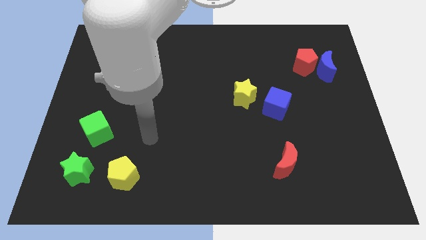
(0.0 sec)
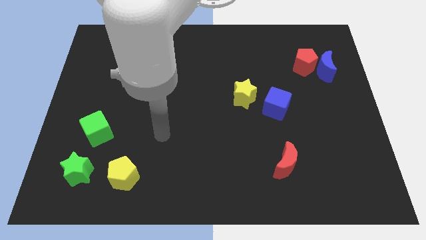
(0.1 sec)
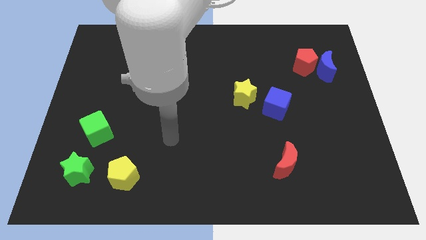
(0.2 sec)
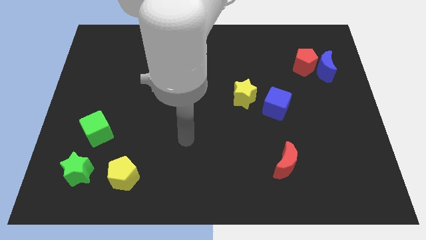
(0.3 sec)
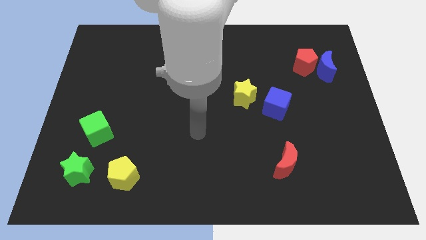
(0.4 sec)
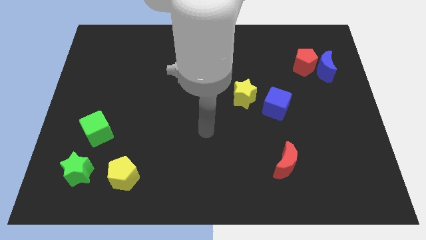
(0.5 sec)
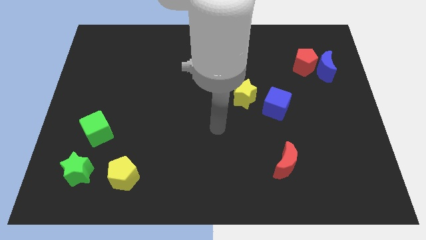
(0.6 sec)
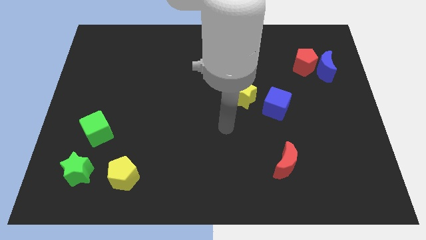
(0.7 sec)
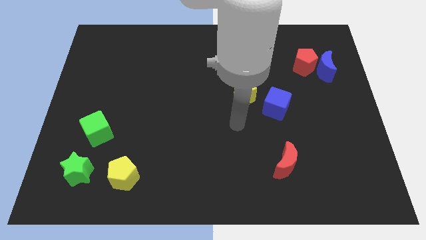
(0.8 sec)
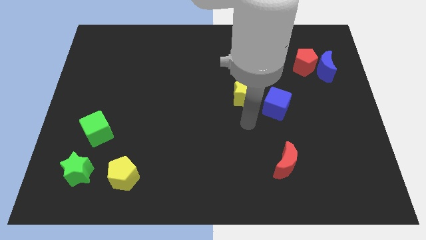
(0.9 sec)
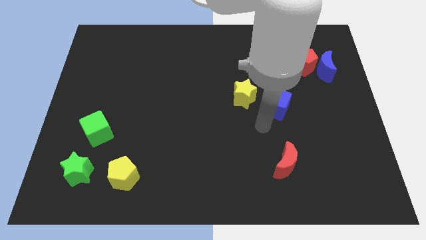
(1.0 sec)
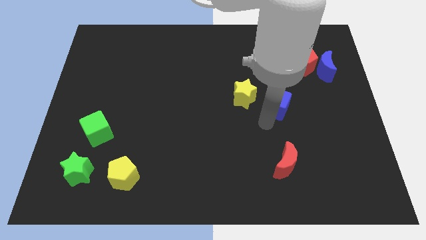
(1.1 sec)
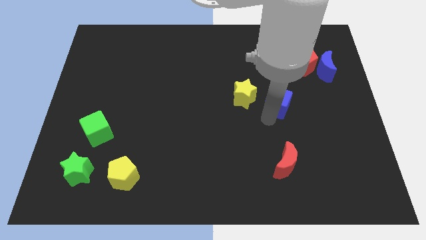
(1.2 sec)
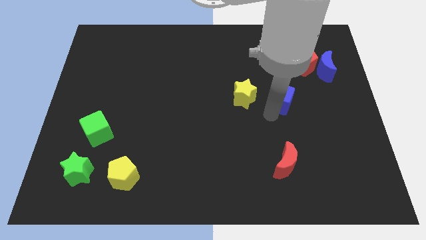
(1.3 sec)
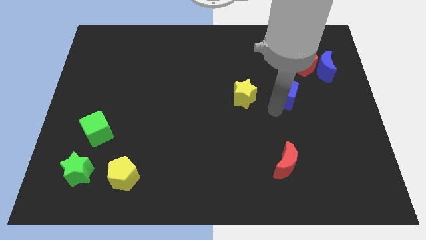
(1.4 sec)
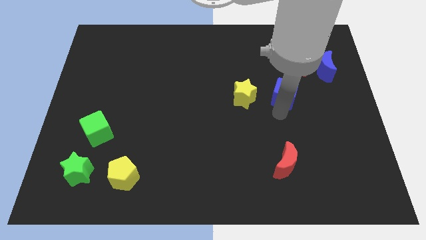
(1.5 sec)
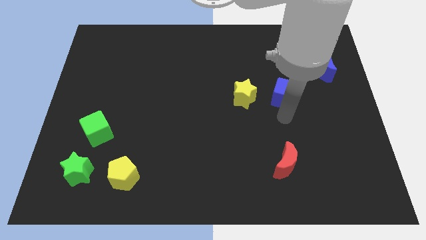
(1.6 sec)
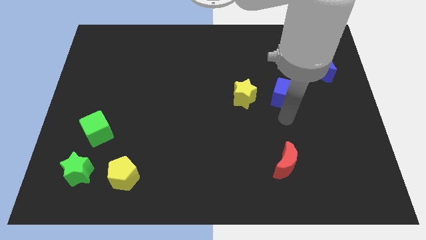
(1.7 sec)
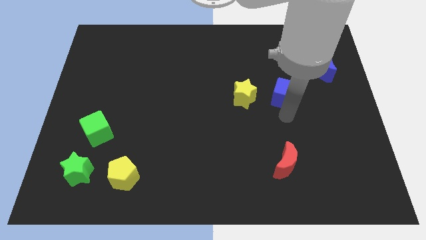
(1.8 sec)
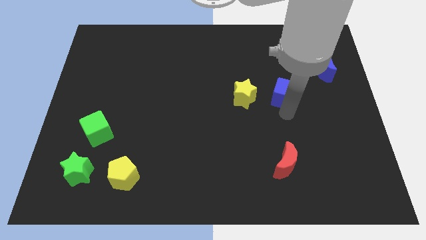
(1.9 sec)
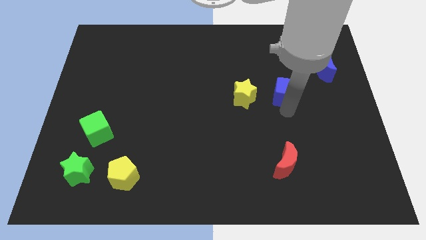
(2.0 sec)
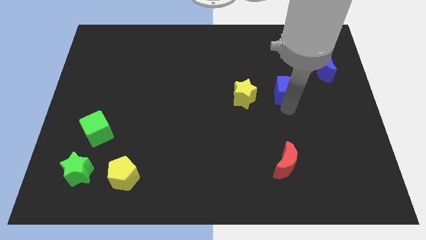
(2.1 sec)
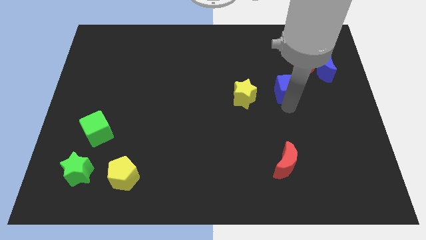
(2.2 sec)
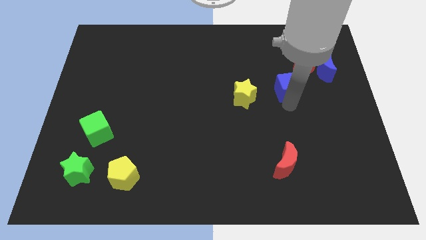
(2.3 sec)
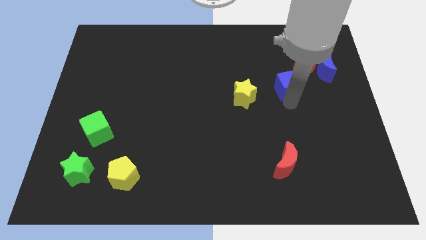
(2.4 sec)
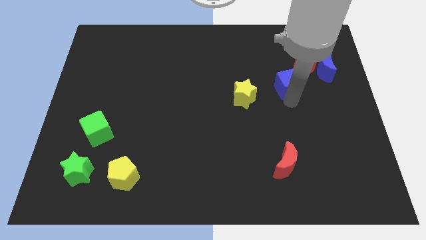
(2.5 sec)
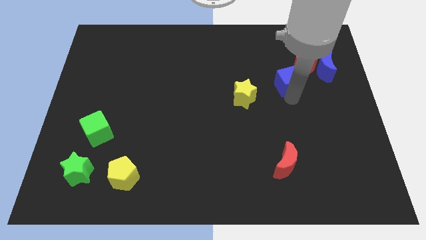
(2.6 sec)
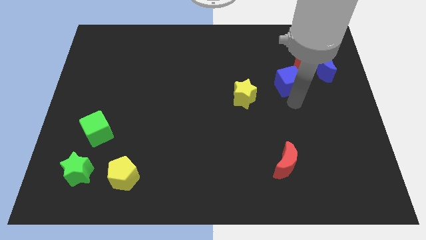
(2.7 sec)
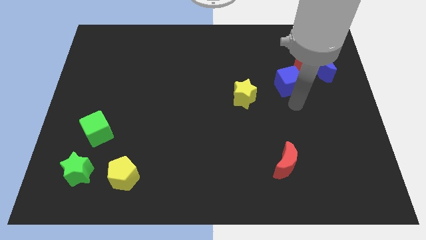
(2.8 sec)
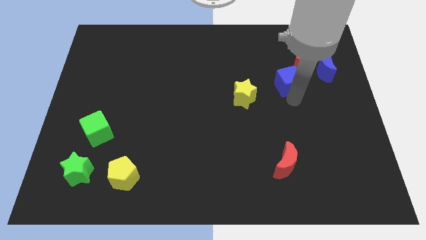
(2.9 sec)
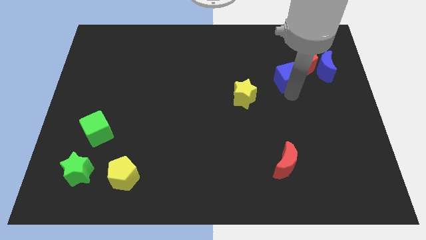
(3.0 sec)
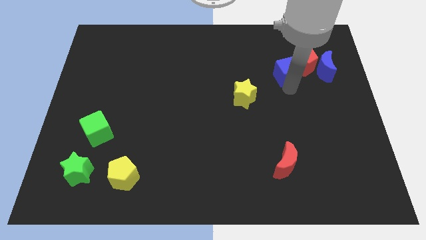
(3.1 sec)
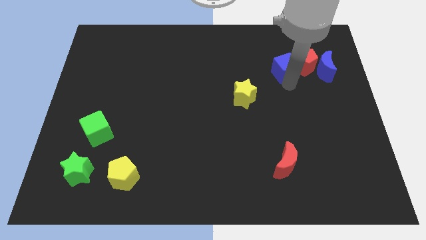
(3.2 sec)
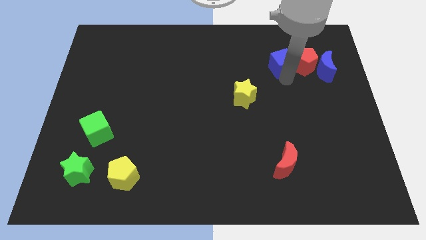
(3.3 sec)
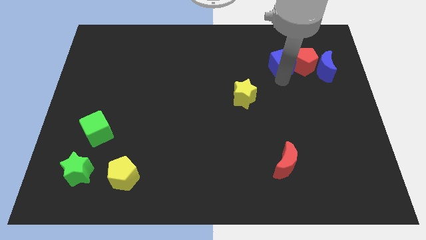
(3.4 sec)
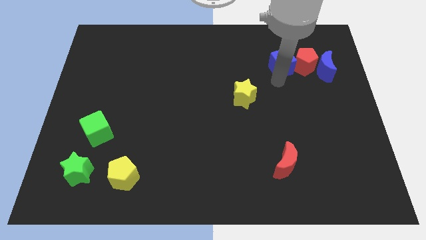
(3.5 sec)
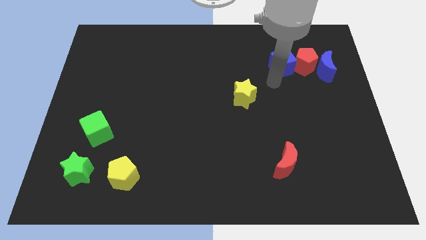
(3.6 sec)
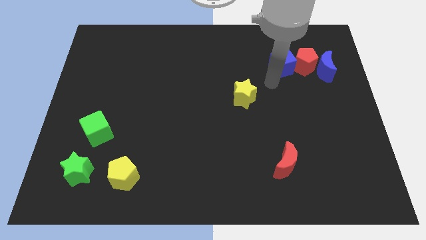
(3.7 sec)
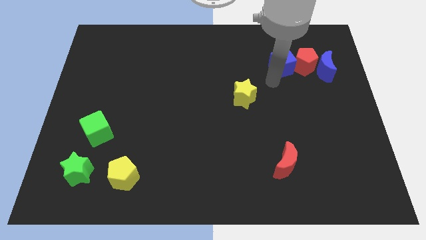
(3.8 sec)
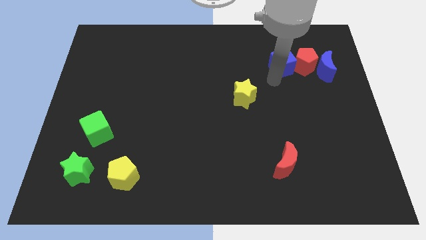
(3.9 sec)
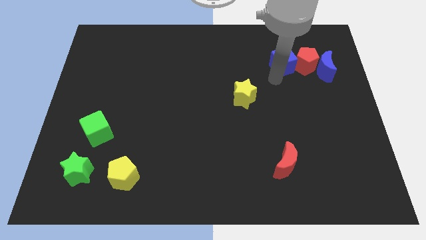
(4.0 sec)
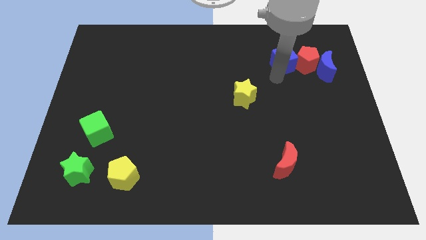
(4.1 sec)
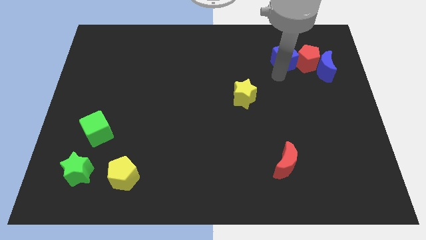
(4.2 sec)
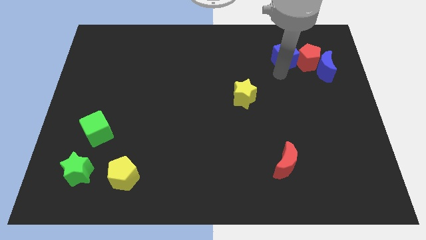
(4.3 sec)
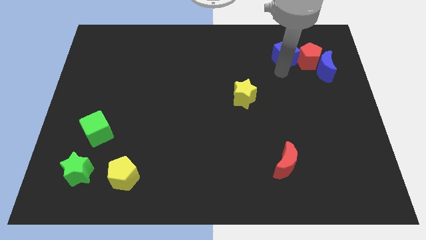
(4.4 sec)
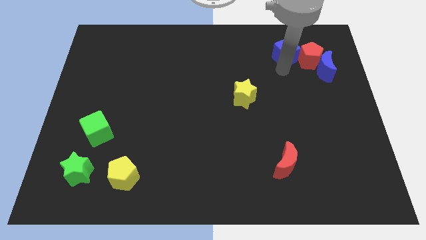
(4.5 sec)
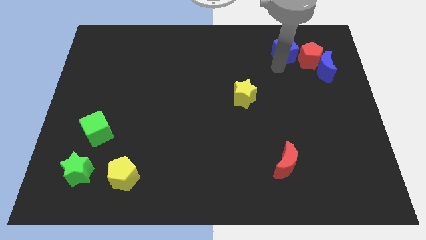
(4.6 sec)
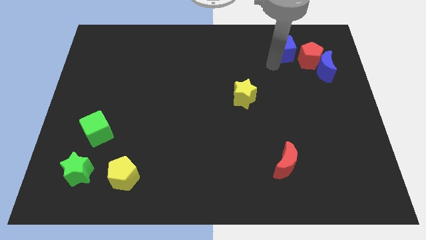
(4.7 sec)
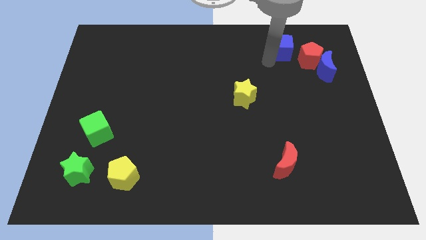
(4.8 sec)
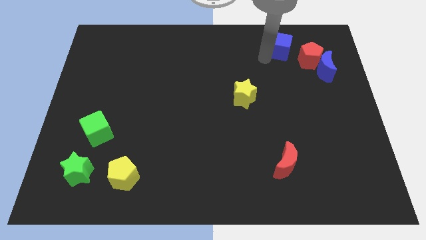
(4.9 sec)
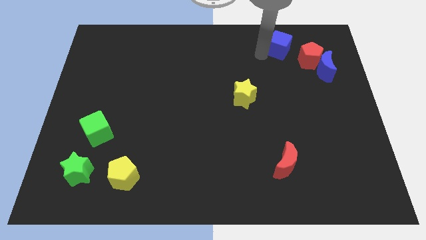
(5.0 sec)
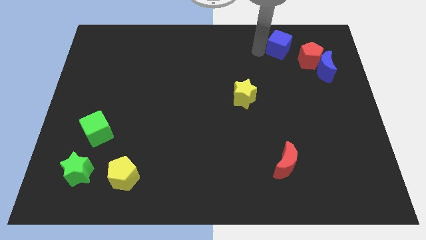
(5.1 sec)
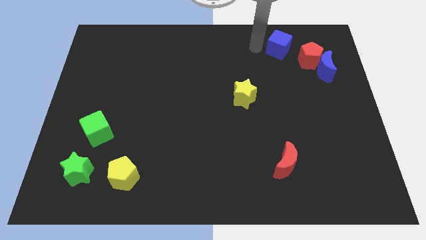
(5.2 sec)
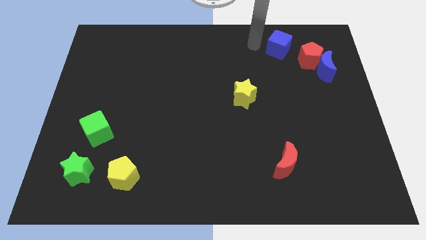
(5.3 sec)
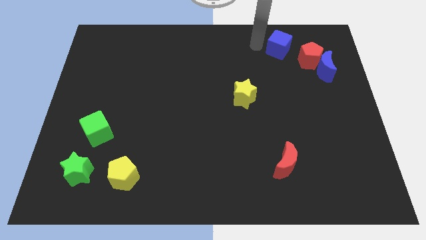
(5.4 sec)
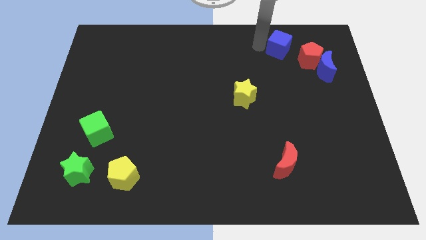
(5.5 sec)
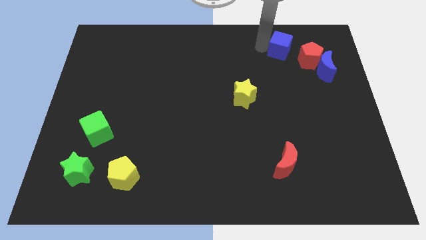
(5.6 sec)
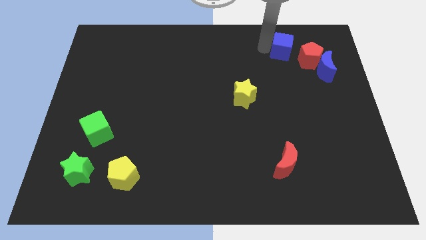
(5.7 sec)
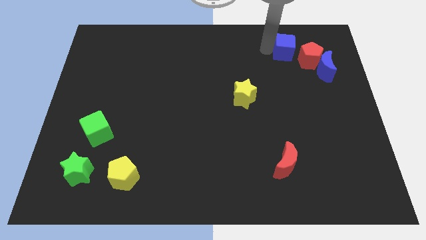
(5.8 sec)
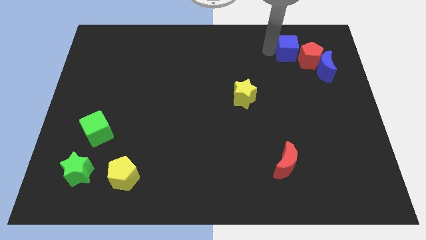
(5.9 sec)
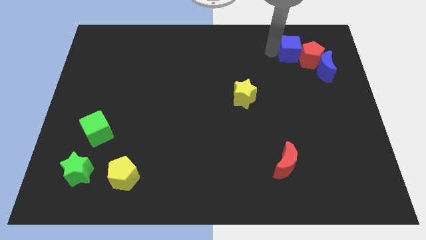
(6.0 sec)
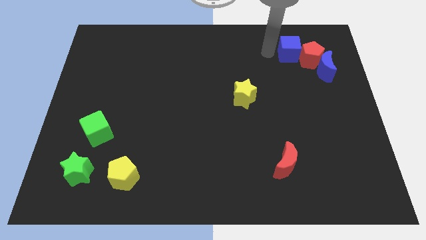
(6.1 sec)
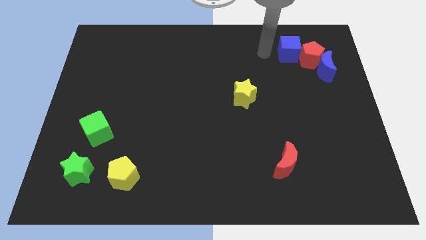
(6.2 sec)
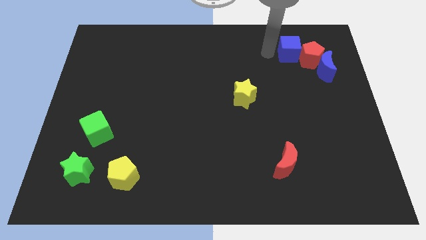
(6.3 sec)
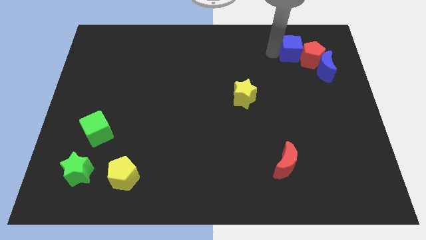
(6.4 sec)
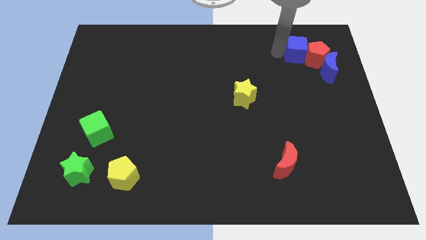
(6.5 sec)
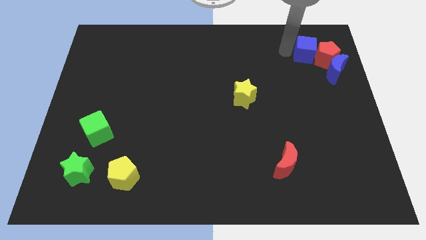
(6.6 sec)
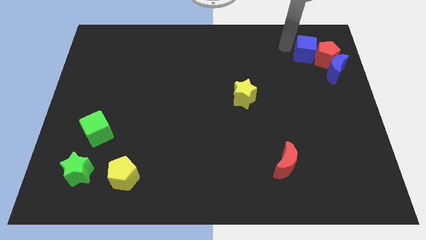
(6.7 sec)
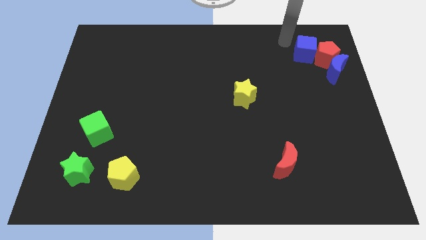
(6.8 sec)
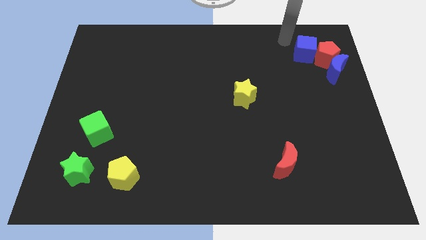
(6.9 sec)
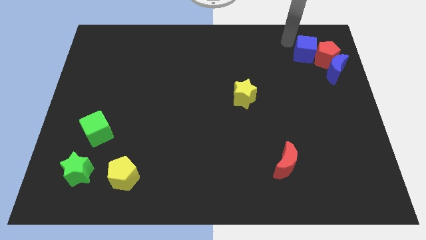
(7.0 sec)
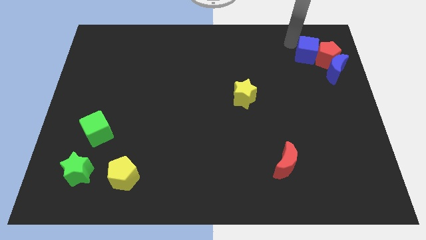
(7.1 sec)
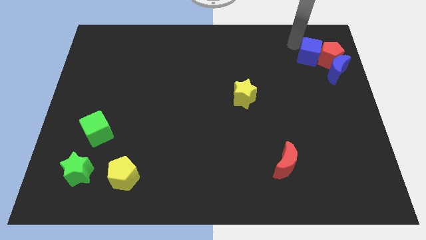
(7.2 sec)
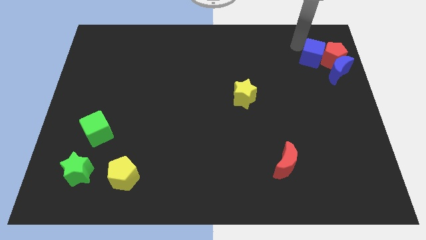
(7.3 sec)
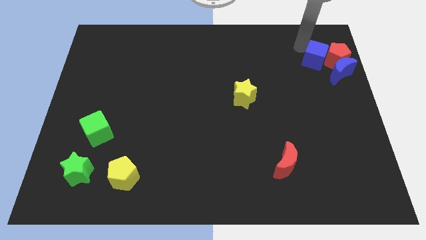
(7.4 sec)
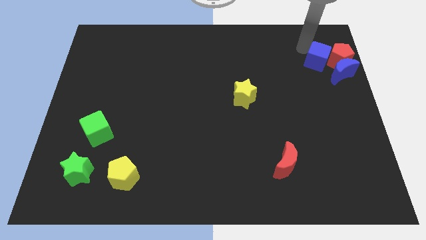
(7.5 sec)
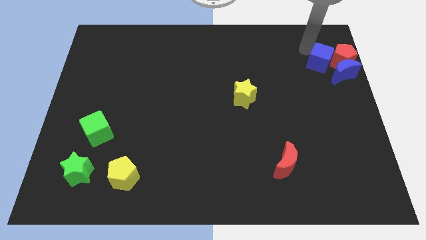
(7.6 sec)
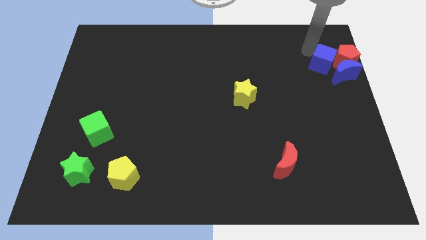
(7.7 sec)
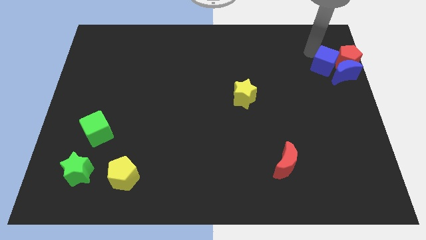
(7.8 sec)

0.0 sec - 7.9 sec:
move the blue cube close to the blue moon
